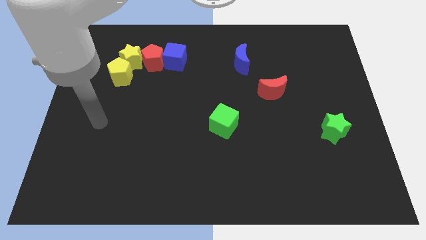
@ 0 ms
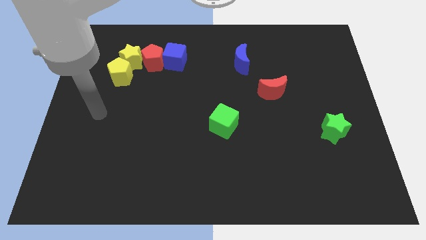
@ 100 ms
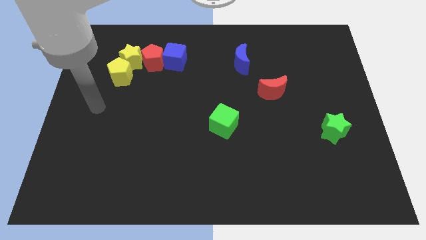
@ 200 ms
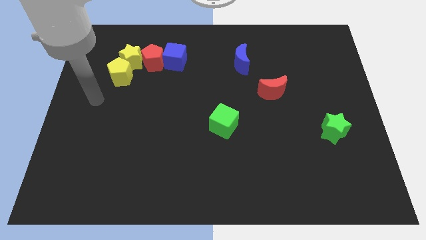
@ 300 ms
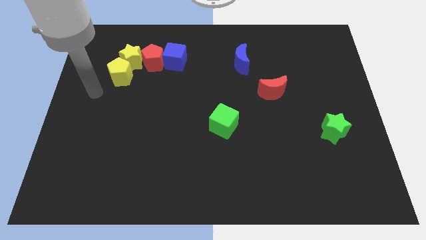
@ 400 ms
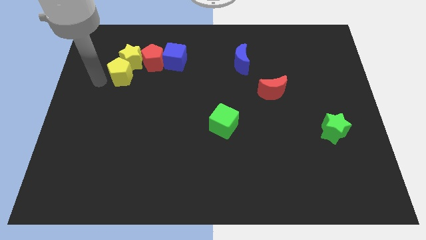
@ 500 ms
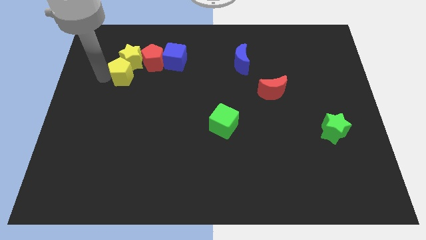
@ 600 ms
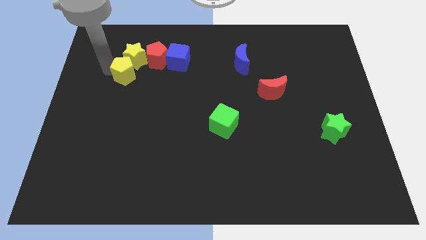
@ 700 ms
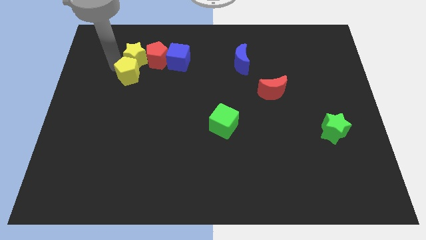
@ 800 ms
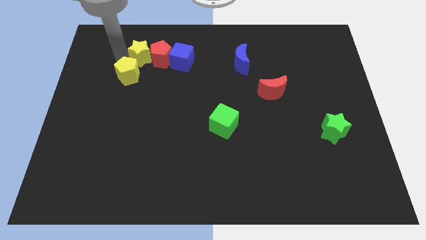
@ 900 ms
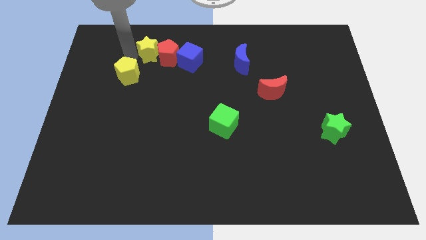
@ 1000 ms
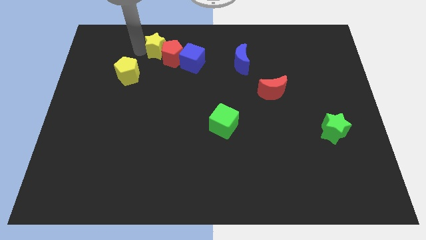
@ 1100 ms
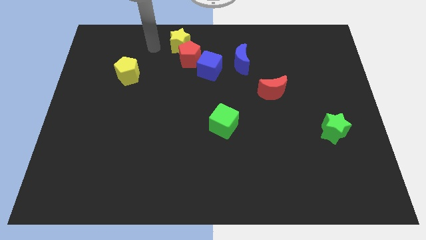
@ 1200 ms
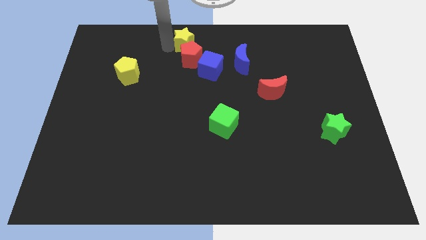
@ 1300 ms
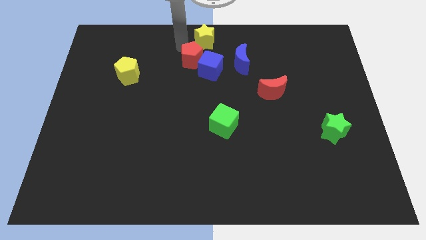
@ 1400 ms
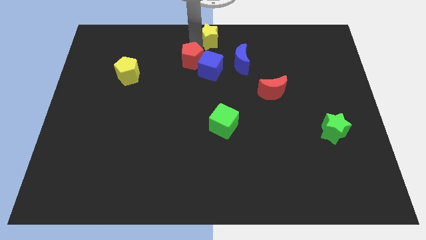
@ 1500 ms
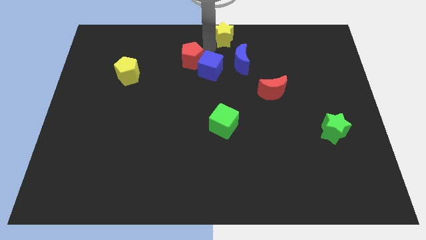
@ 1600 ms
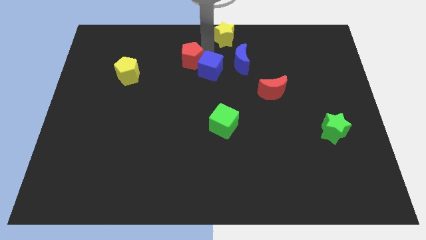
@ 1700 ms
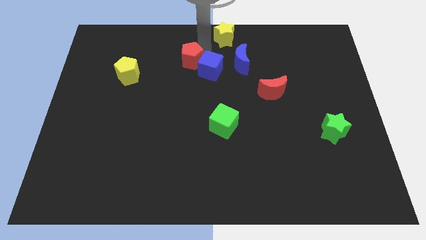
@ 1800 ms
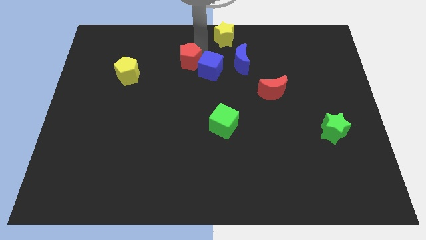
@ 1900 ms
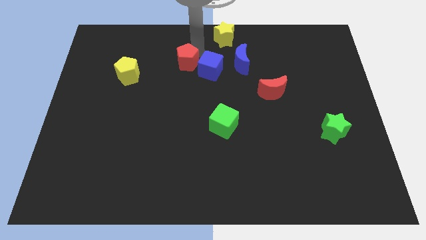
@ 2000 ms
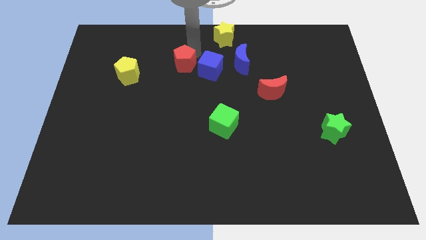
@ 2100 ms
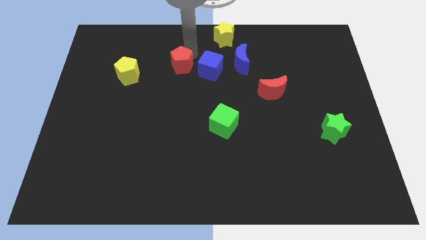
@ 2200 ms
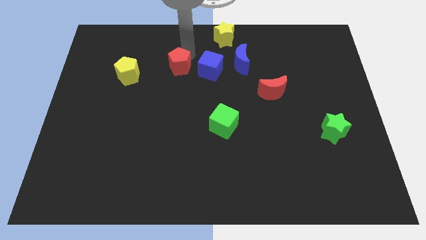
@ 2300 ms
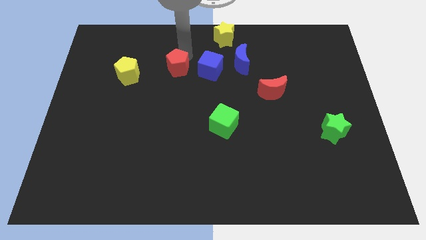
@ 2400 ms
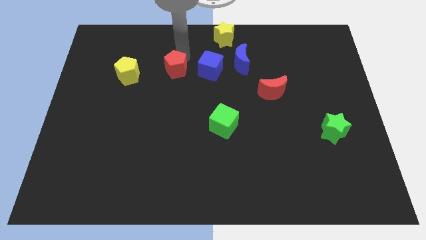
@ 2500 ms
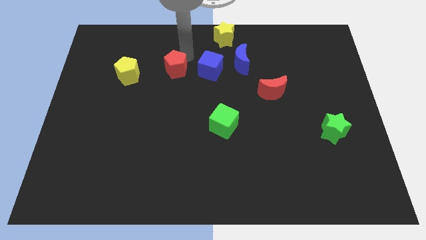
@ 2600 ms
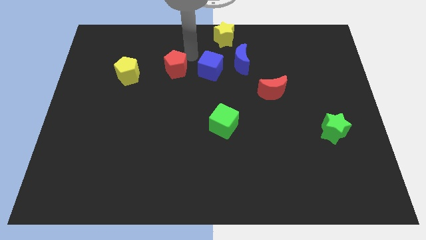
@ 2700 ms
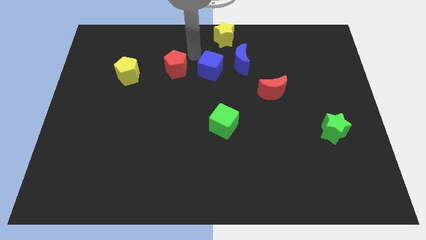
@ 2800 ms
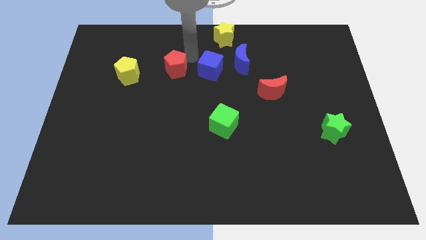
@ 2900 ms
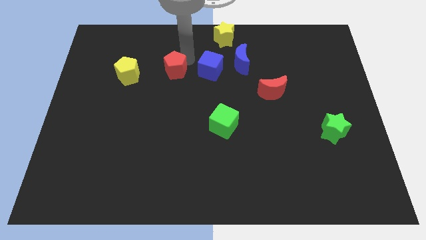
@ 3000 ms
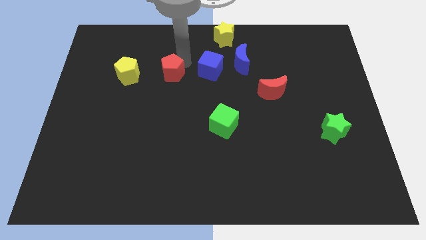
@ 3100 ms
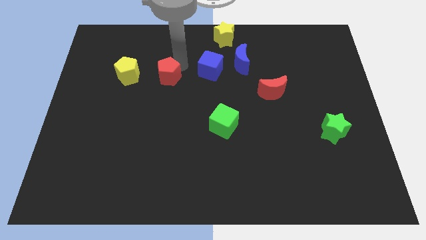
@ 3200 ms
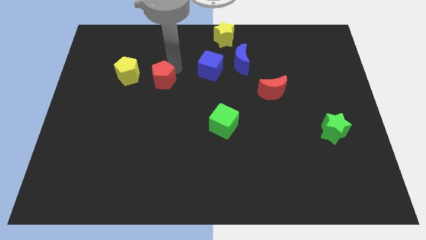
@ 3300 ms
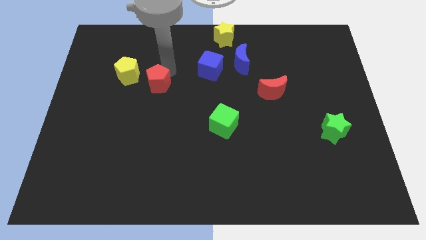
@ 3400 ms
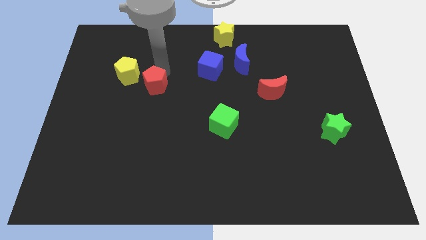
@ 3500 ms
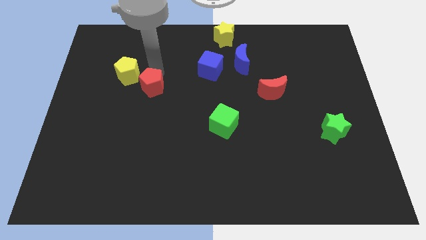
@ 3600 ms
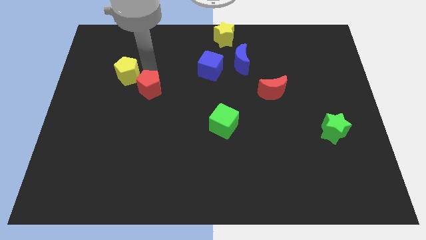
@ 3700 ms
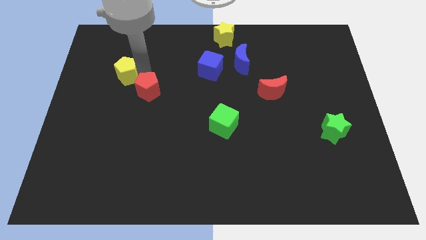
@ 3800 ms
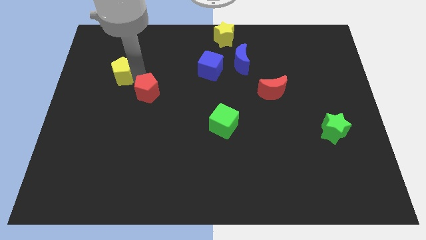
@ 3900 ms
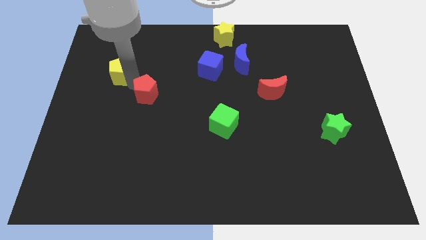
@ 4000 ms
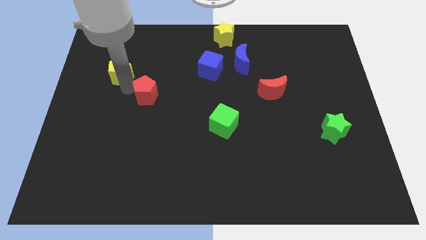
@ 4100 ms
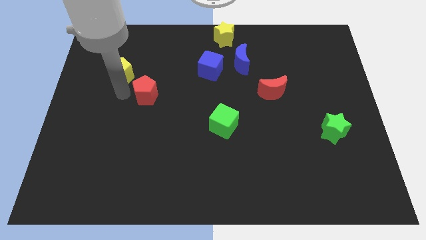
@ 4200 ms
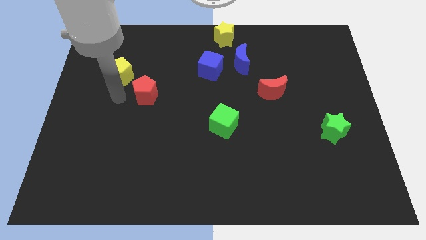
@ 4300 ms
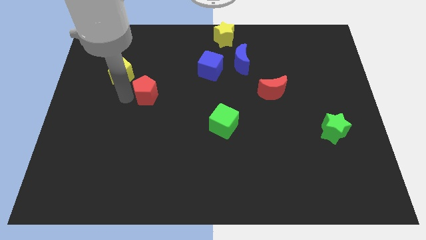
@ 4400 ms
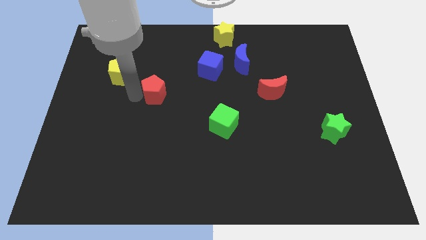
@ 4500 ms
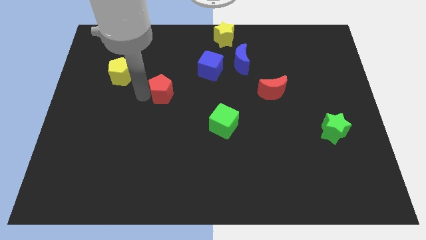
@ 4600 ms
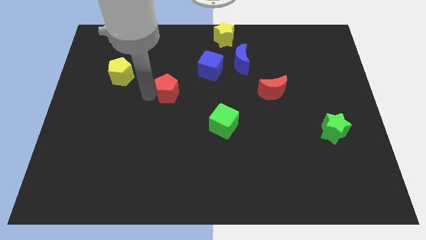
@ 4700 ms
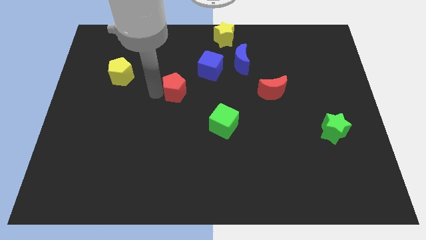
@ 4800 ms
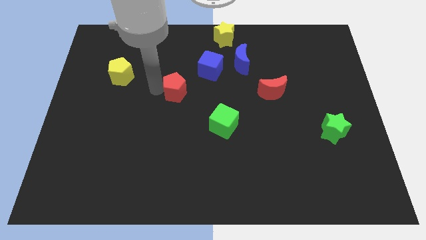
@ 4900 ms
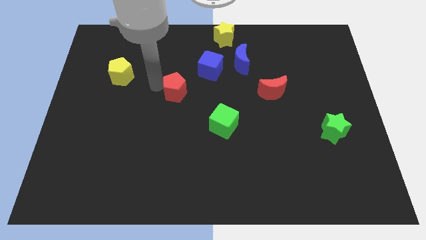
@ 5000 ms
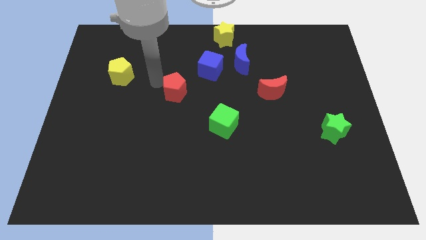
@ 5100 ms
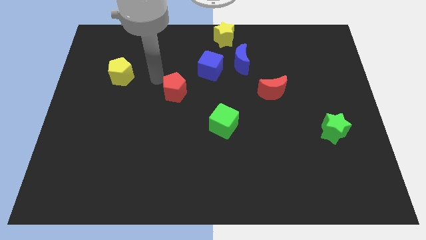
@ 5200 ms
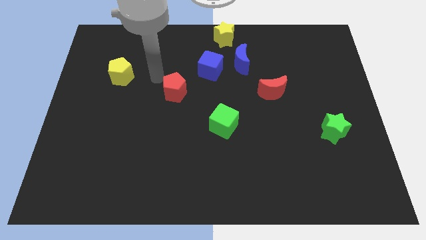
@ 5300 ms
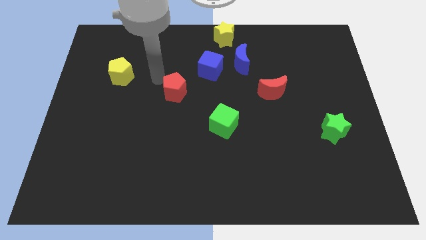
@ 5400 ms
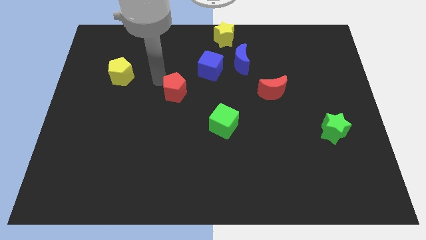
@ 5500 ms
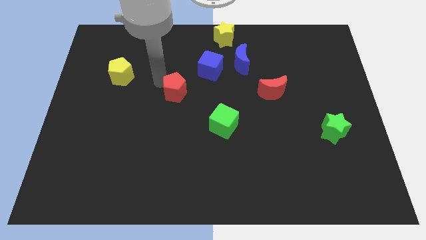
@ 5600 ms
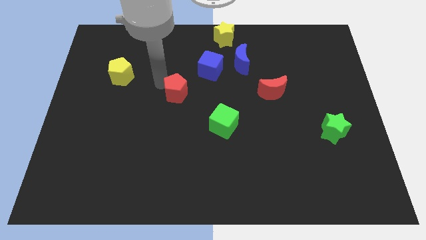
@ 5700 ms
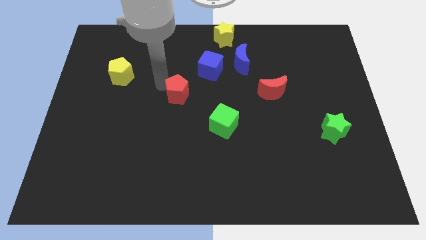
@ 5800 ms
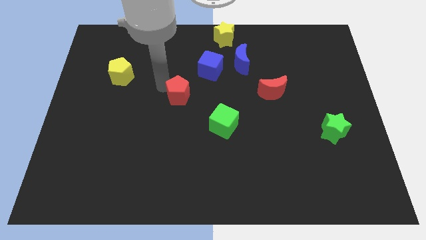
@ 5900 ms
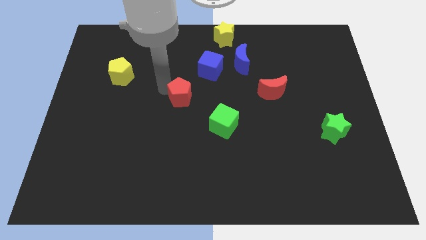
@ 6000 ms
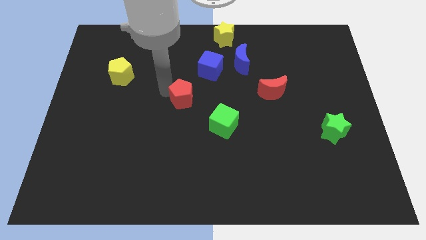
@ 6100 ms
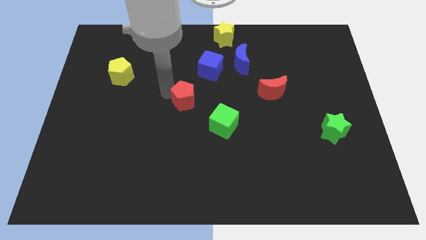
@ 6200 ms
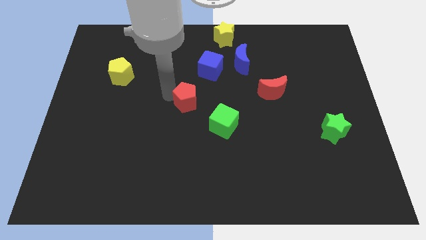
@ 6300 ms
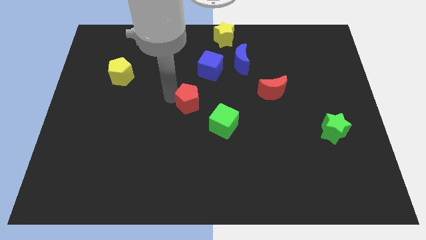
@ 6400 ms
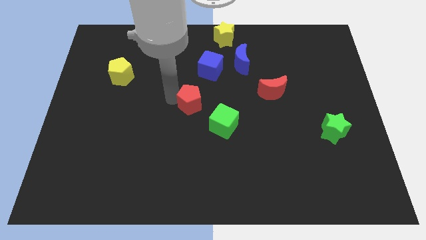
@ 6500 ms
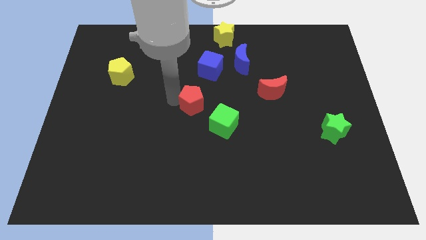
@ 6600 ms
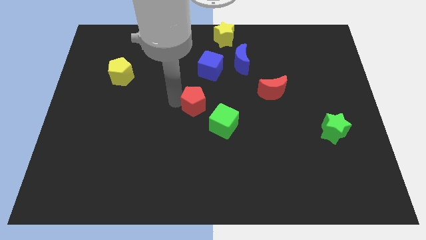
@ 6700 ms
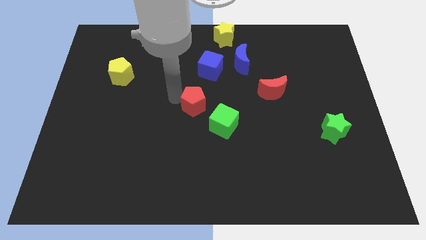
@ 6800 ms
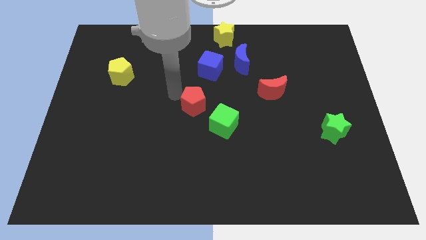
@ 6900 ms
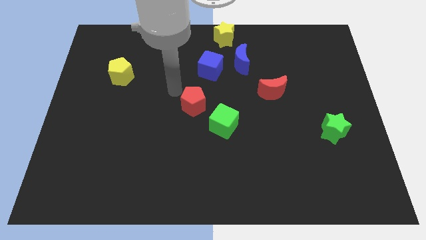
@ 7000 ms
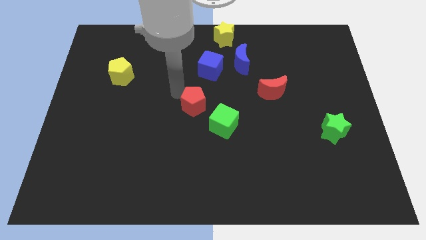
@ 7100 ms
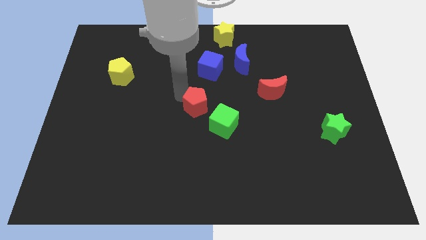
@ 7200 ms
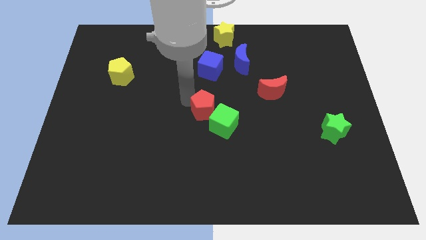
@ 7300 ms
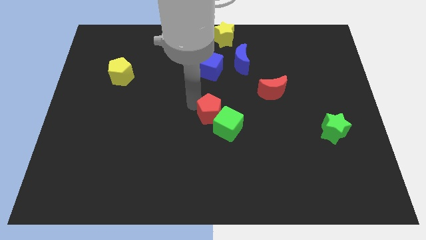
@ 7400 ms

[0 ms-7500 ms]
move the red pentagon next to the green cube

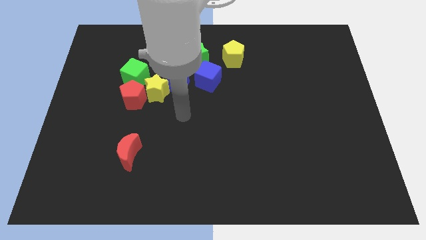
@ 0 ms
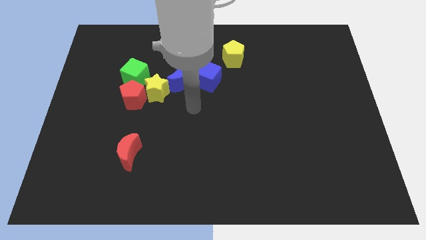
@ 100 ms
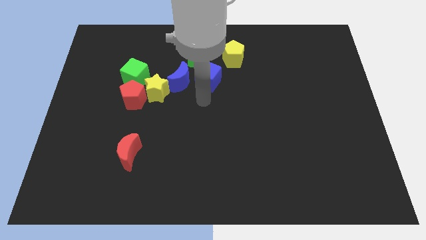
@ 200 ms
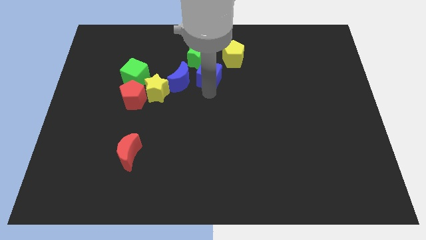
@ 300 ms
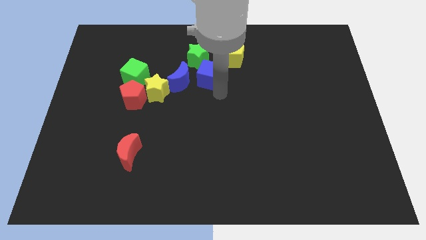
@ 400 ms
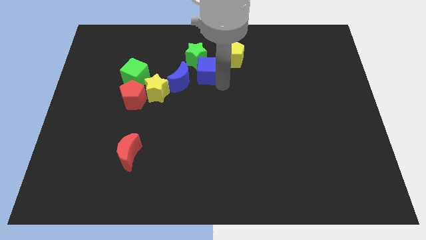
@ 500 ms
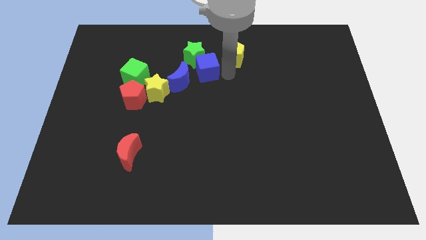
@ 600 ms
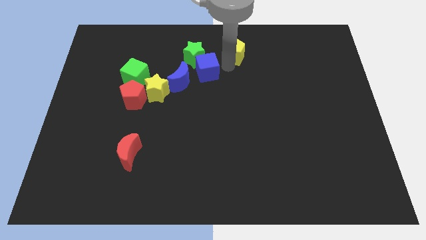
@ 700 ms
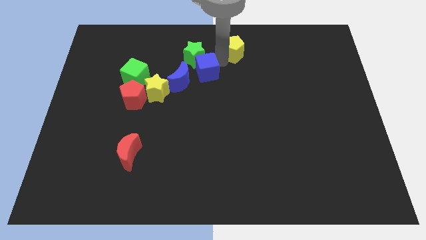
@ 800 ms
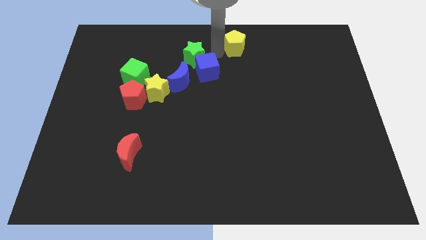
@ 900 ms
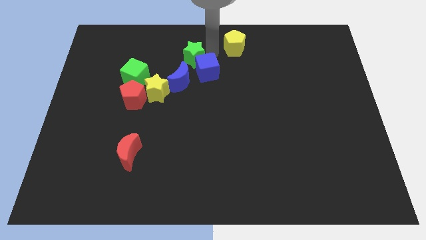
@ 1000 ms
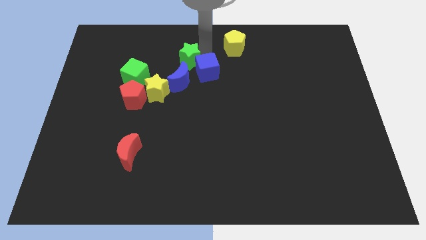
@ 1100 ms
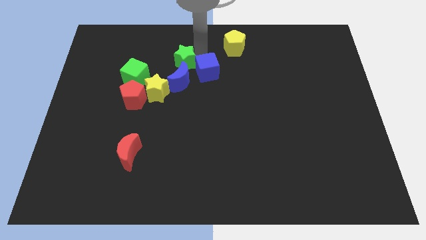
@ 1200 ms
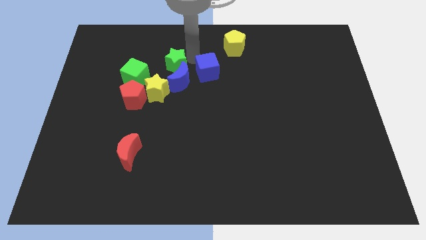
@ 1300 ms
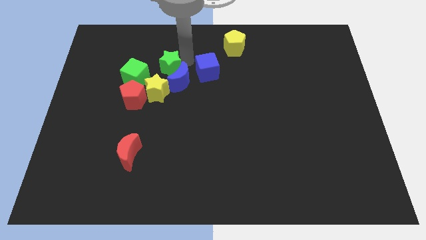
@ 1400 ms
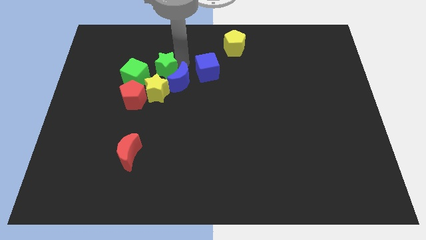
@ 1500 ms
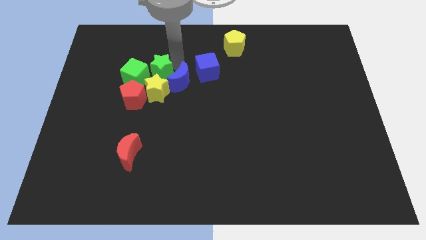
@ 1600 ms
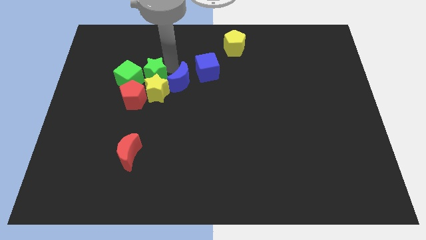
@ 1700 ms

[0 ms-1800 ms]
push the green star towards the green cube
